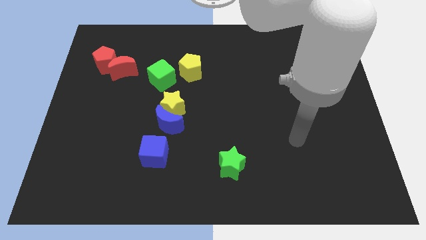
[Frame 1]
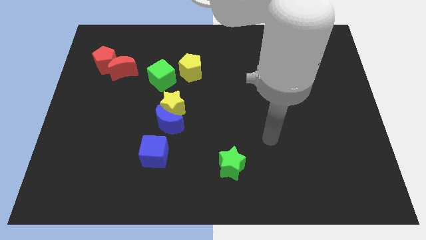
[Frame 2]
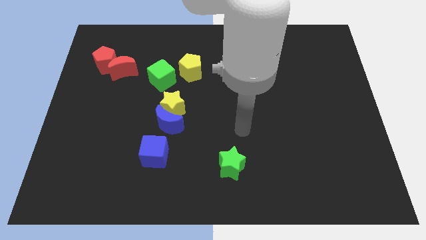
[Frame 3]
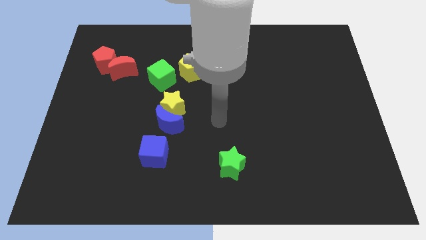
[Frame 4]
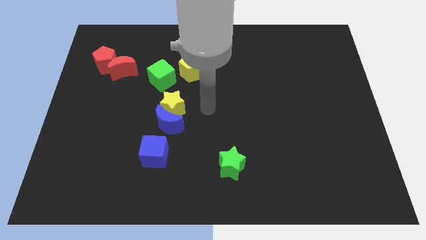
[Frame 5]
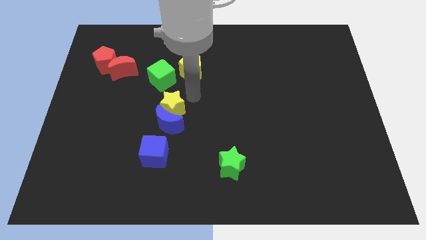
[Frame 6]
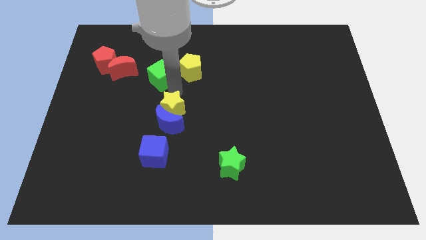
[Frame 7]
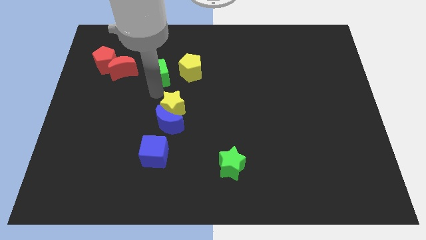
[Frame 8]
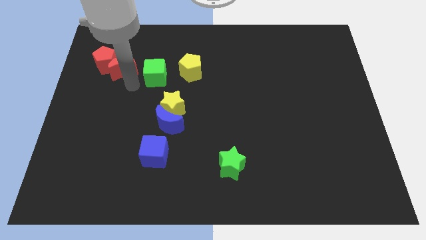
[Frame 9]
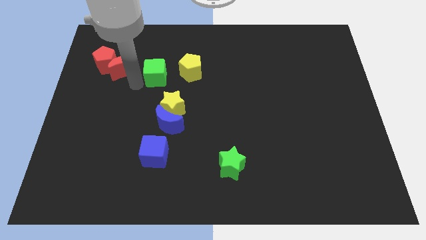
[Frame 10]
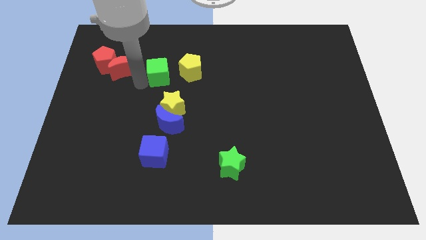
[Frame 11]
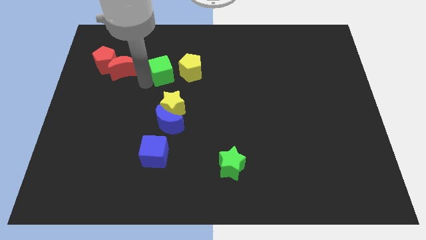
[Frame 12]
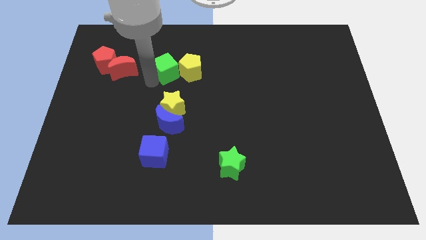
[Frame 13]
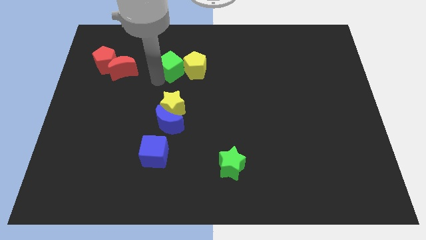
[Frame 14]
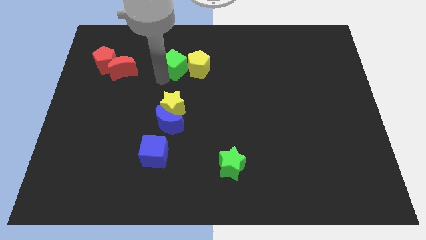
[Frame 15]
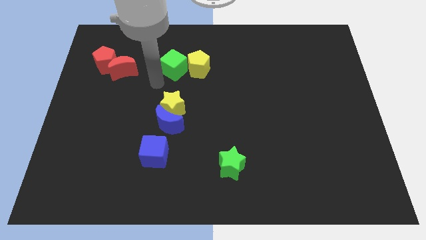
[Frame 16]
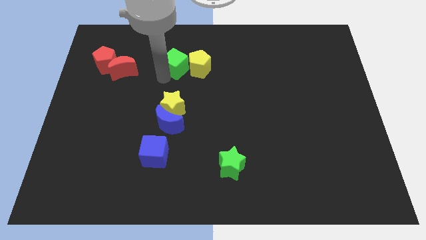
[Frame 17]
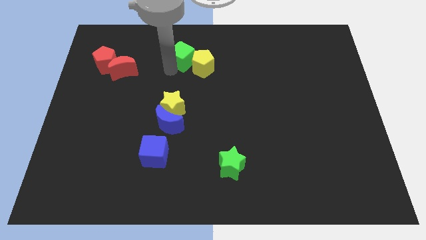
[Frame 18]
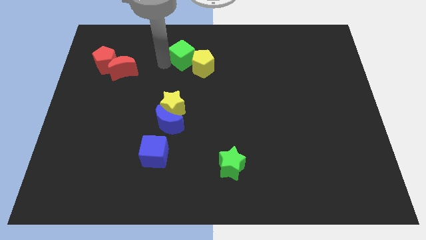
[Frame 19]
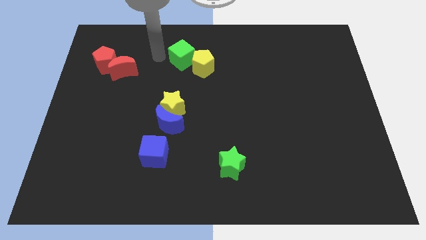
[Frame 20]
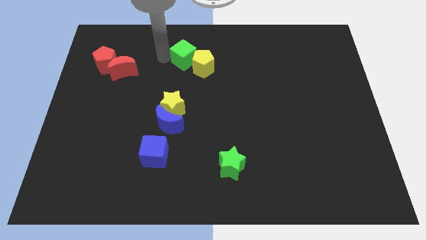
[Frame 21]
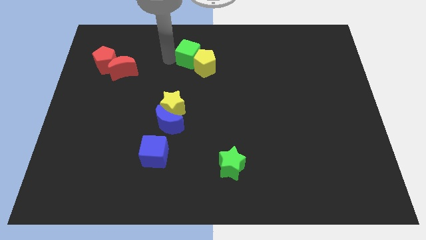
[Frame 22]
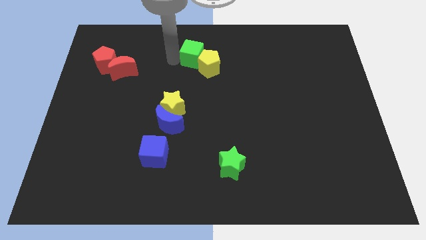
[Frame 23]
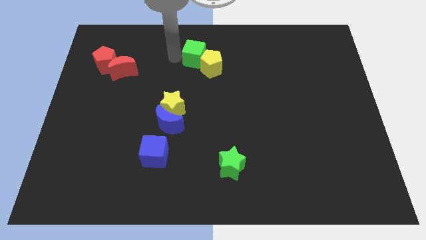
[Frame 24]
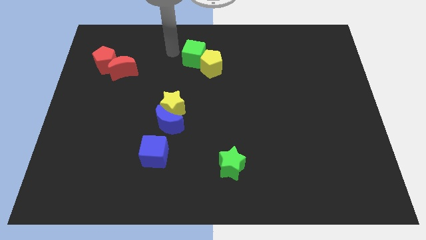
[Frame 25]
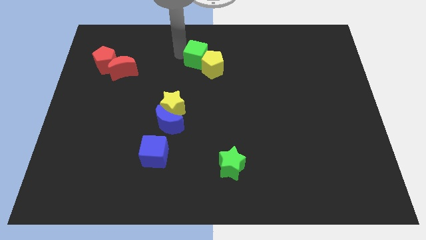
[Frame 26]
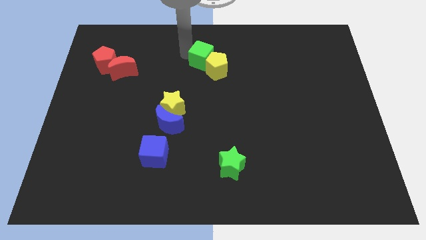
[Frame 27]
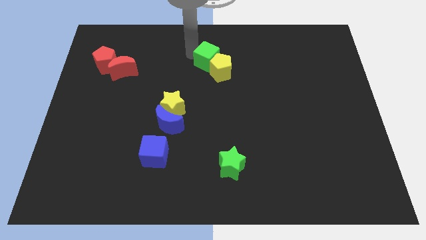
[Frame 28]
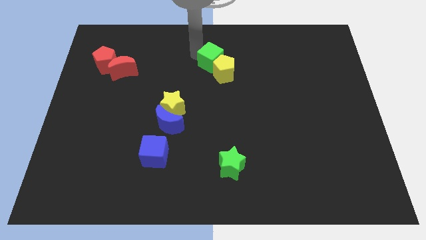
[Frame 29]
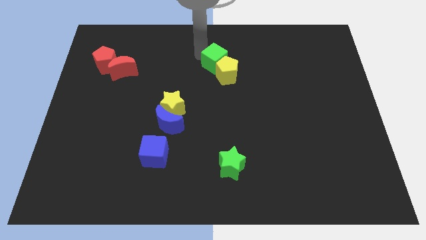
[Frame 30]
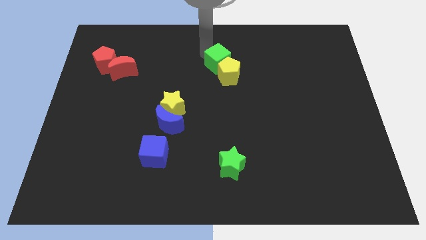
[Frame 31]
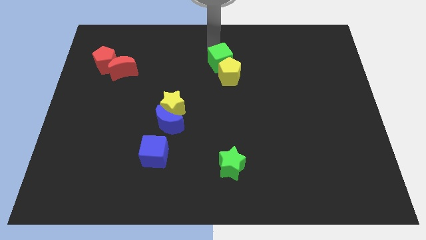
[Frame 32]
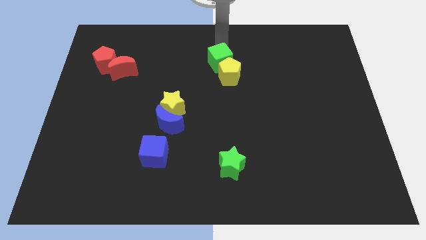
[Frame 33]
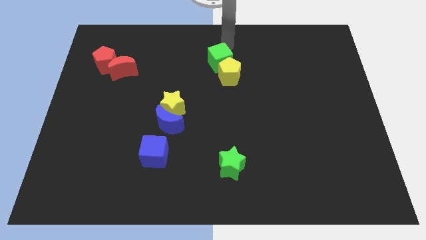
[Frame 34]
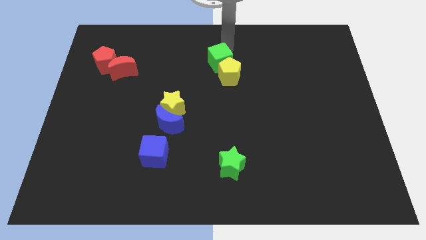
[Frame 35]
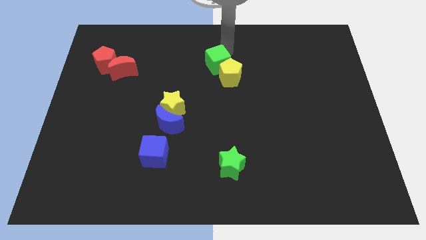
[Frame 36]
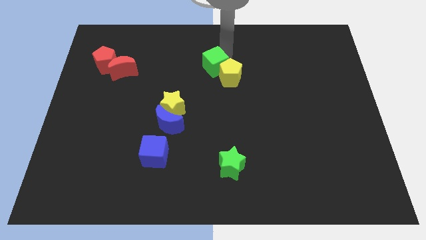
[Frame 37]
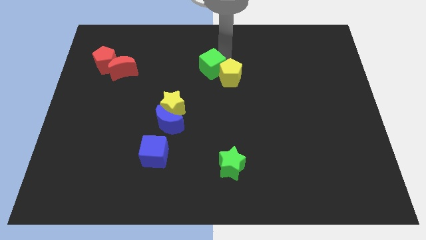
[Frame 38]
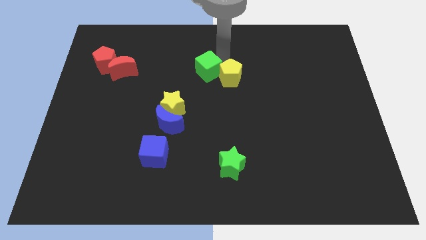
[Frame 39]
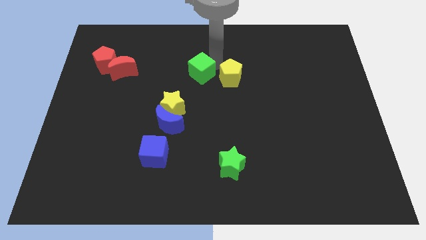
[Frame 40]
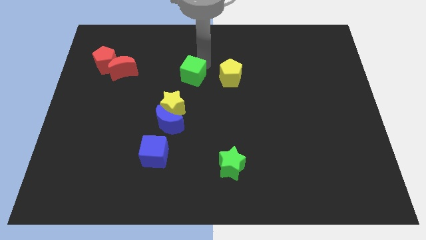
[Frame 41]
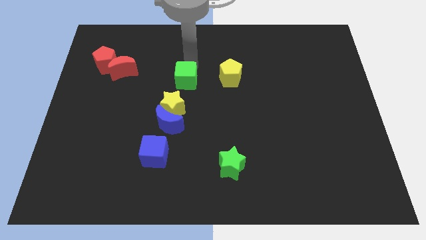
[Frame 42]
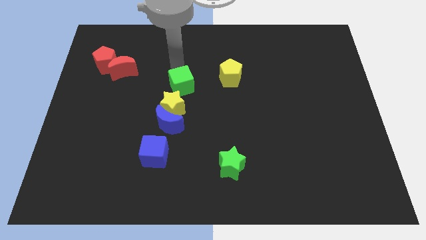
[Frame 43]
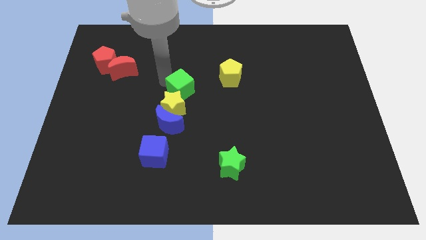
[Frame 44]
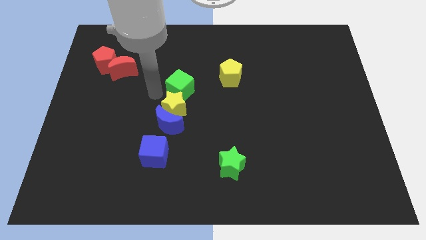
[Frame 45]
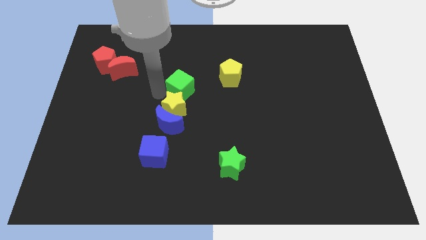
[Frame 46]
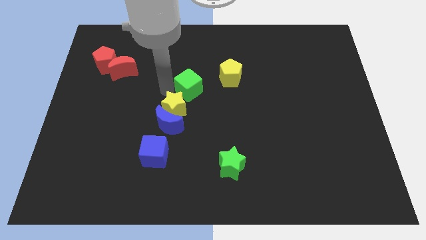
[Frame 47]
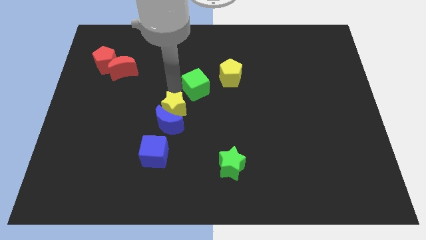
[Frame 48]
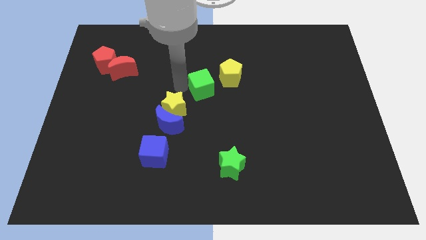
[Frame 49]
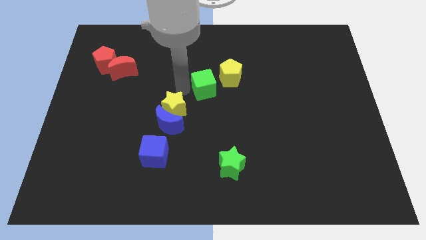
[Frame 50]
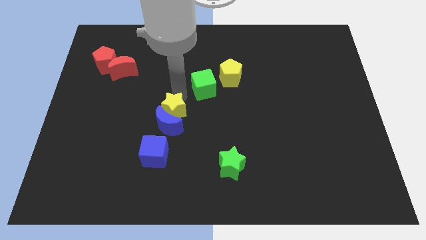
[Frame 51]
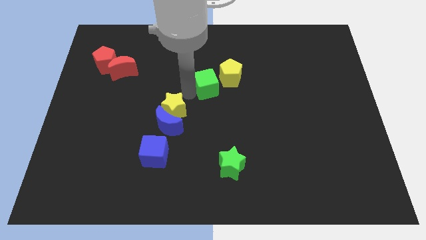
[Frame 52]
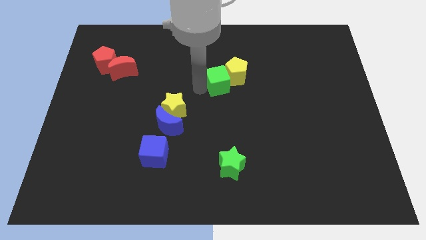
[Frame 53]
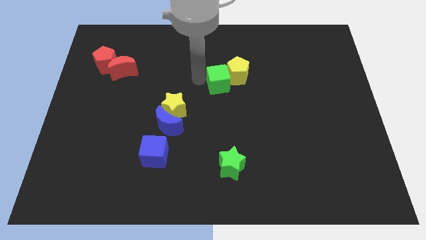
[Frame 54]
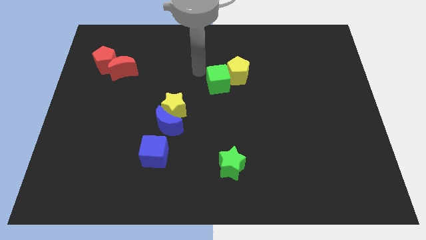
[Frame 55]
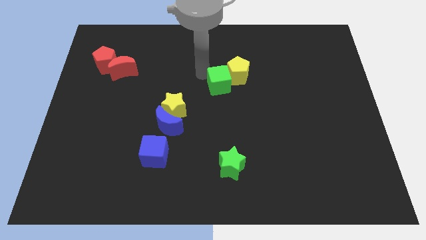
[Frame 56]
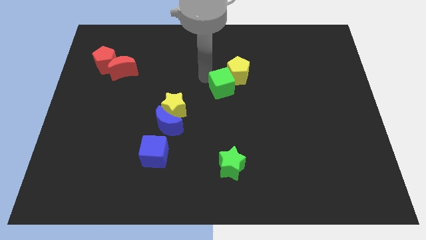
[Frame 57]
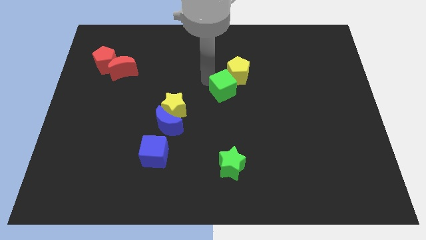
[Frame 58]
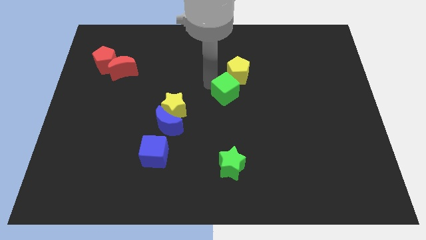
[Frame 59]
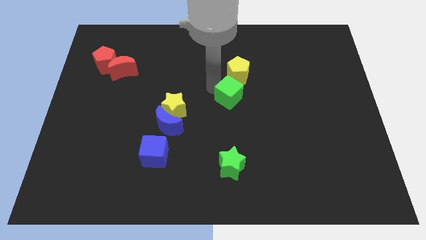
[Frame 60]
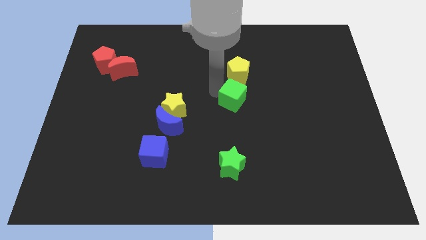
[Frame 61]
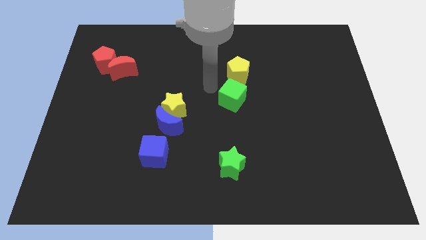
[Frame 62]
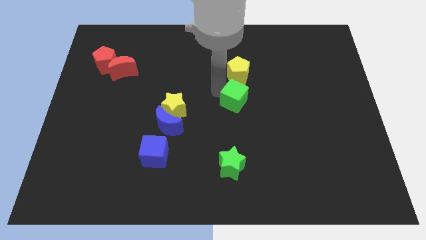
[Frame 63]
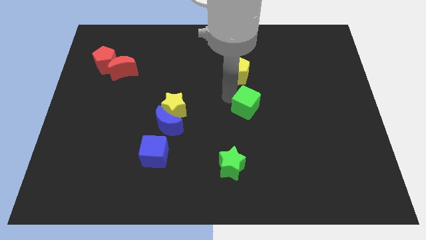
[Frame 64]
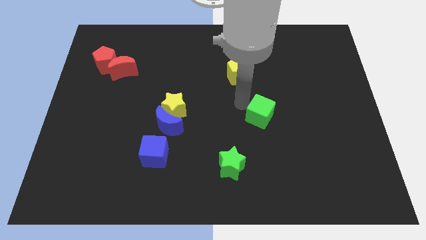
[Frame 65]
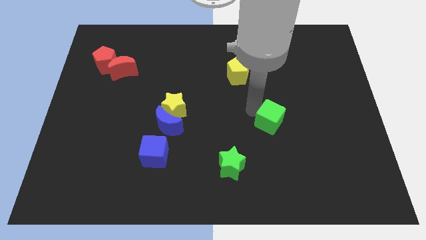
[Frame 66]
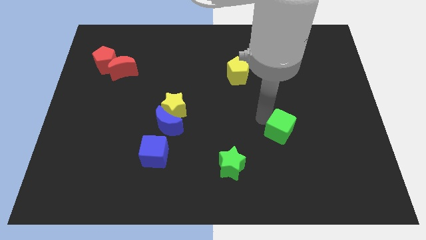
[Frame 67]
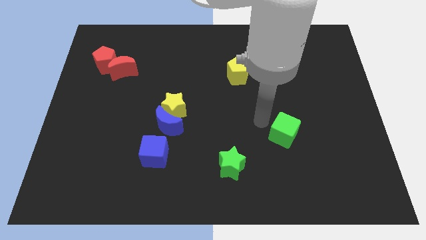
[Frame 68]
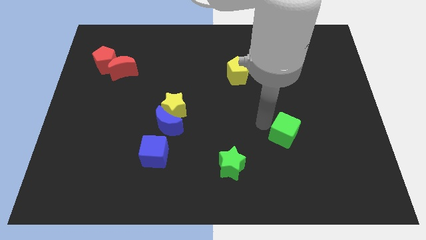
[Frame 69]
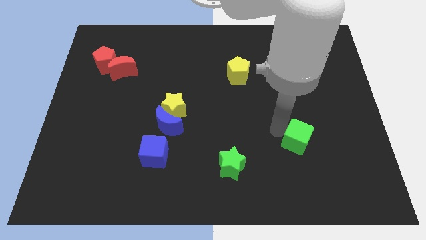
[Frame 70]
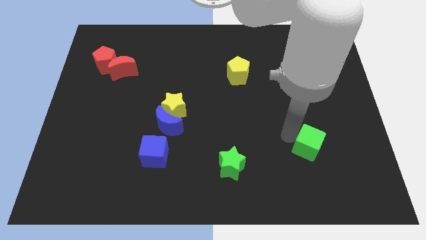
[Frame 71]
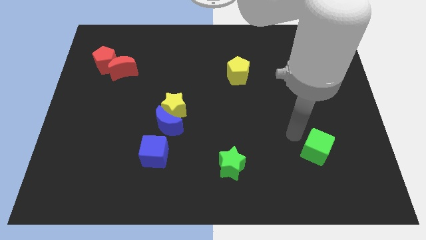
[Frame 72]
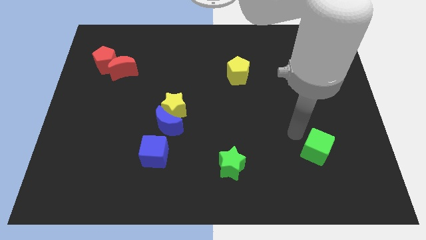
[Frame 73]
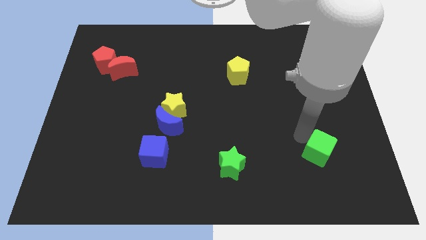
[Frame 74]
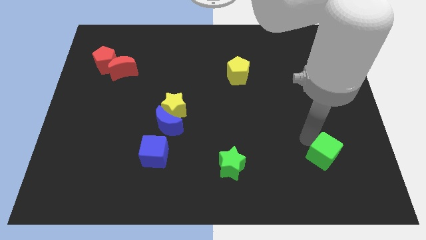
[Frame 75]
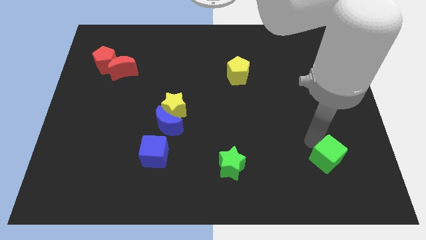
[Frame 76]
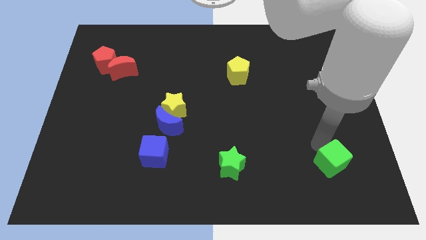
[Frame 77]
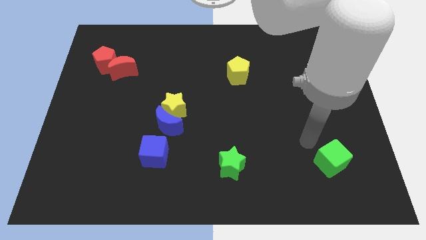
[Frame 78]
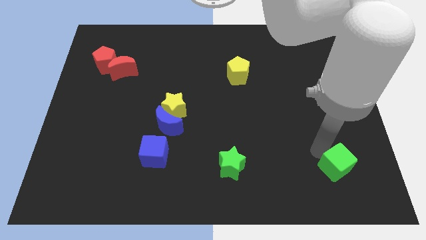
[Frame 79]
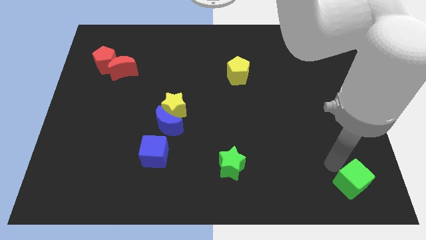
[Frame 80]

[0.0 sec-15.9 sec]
put the green cube to the bottom right of the board
